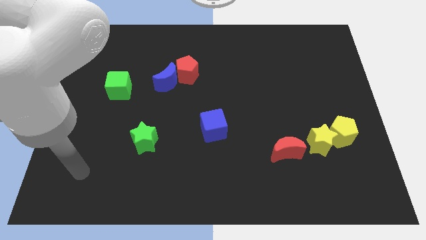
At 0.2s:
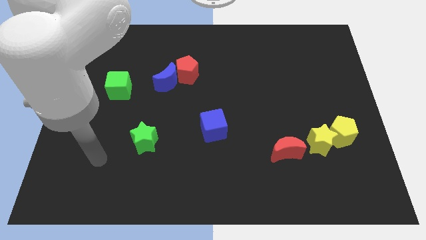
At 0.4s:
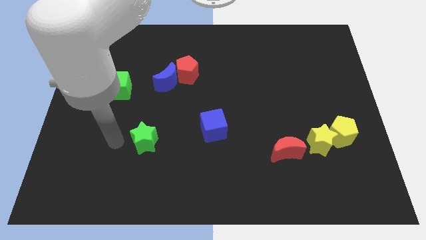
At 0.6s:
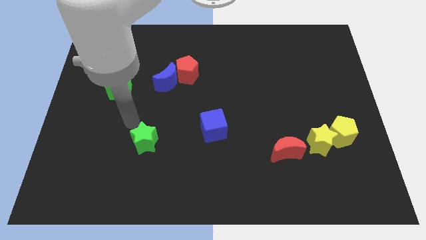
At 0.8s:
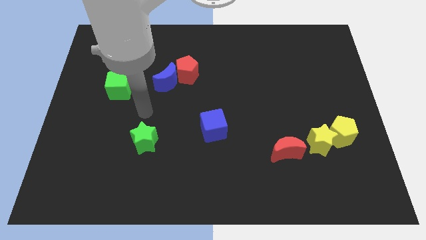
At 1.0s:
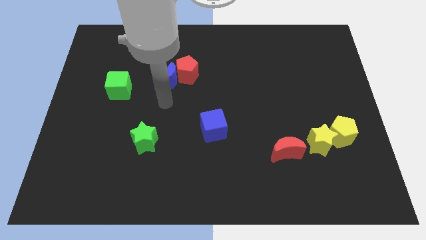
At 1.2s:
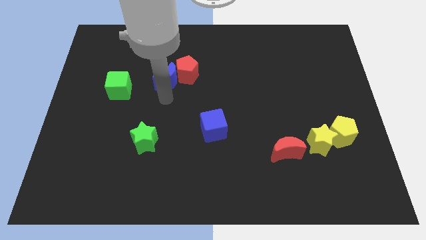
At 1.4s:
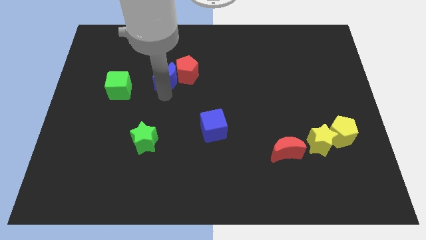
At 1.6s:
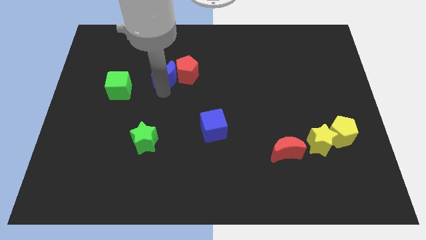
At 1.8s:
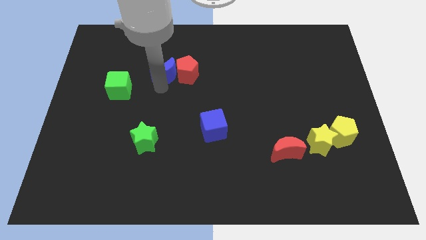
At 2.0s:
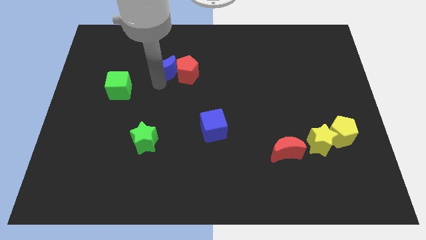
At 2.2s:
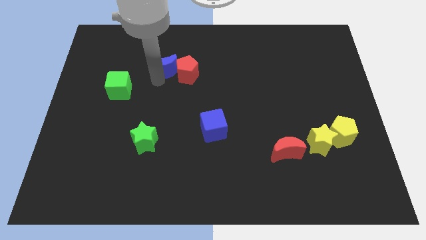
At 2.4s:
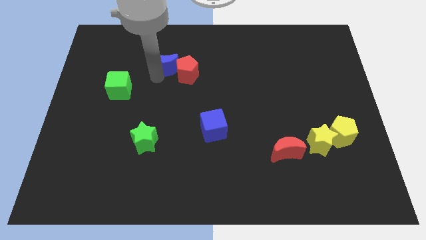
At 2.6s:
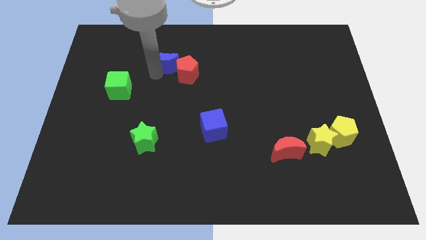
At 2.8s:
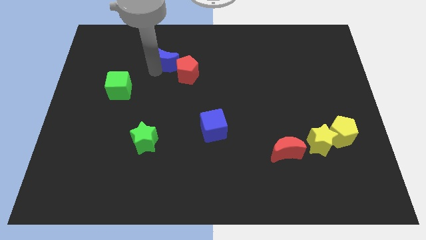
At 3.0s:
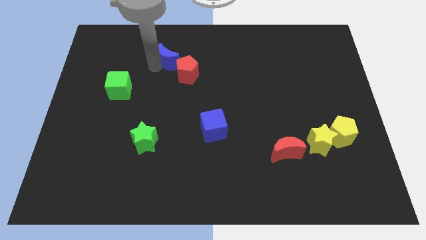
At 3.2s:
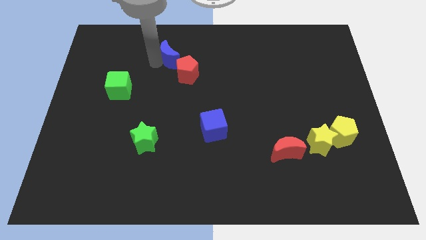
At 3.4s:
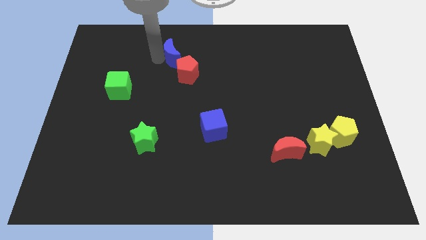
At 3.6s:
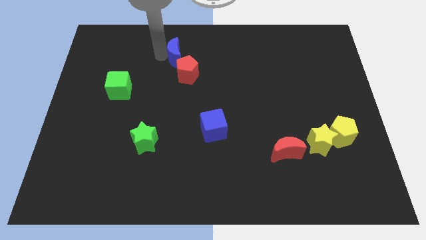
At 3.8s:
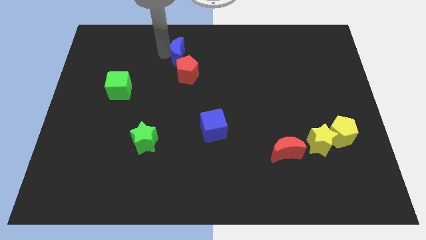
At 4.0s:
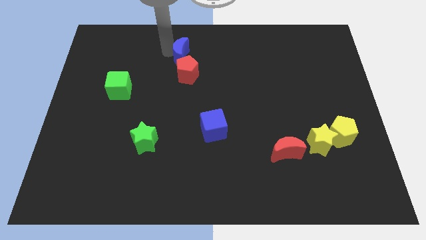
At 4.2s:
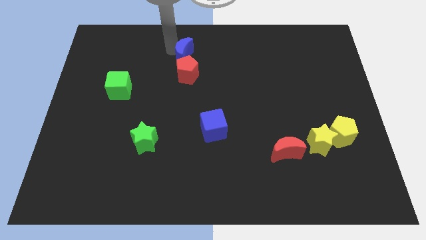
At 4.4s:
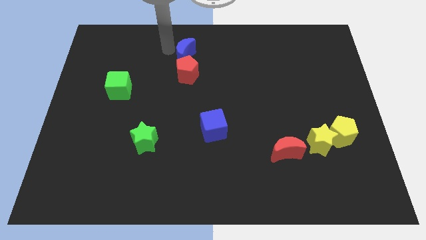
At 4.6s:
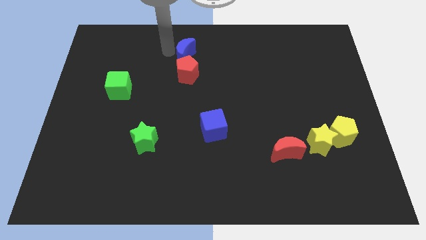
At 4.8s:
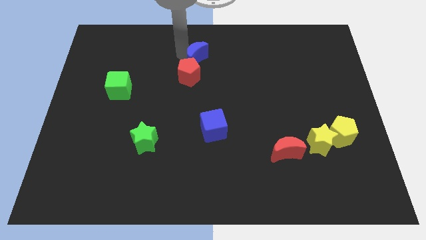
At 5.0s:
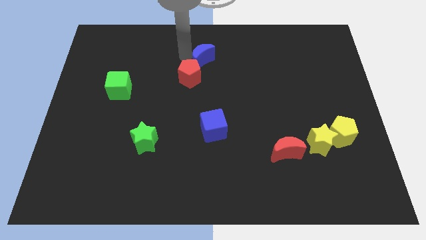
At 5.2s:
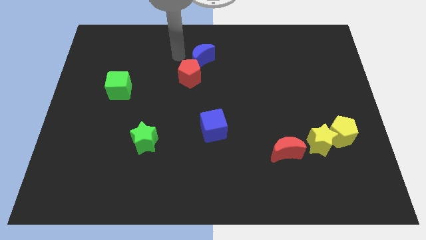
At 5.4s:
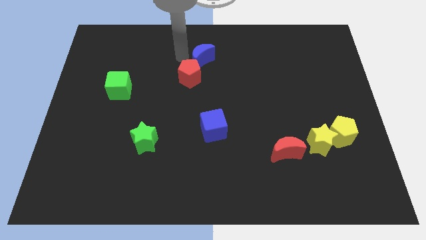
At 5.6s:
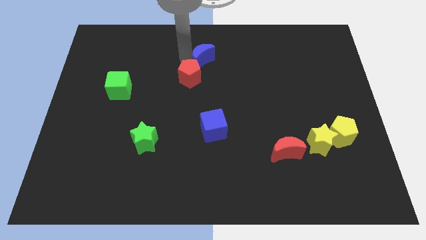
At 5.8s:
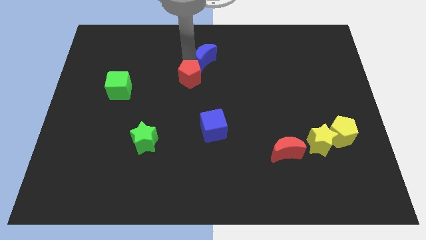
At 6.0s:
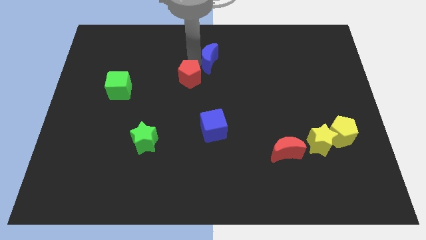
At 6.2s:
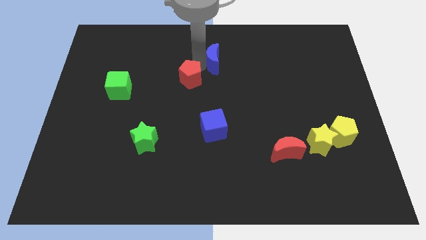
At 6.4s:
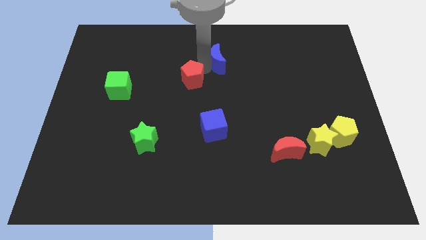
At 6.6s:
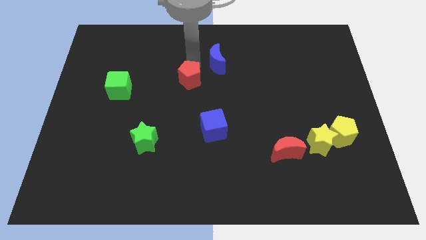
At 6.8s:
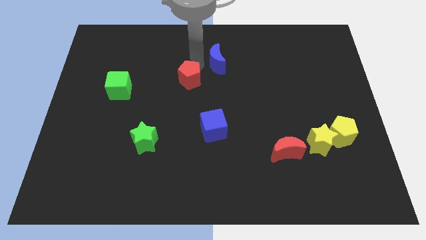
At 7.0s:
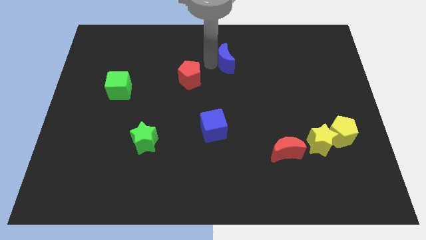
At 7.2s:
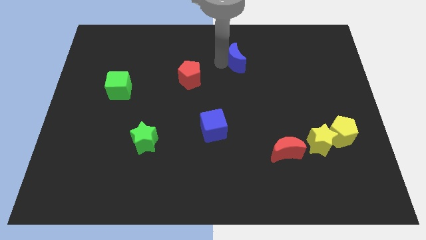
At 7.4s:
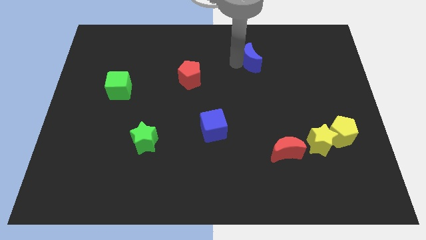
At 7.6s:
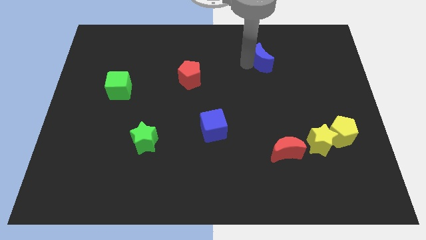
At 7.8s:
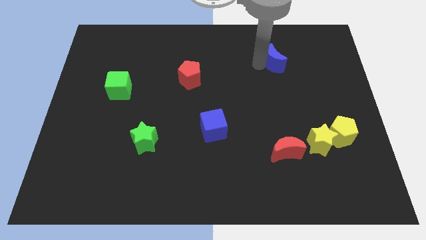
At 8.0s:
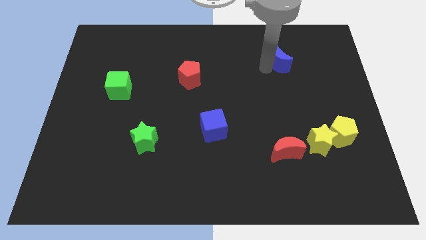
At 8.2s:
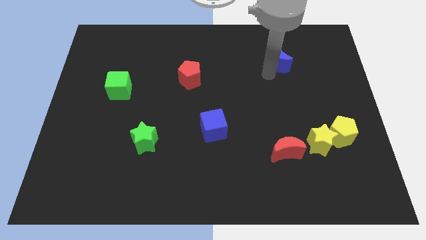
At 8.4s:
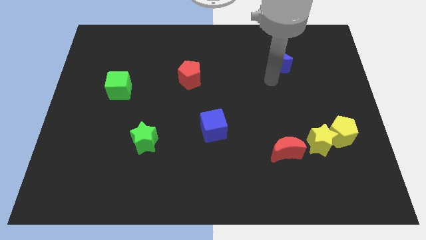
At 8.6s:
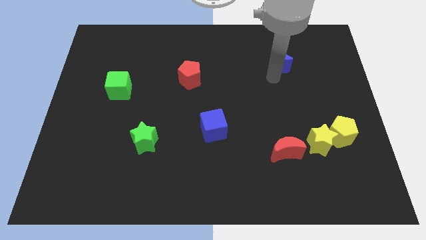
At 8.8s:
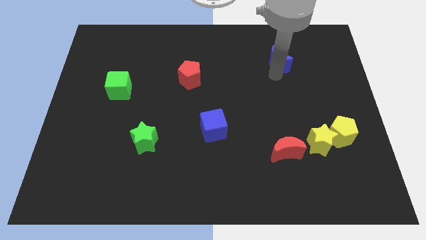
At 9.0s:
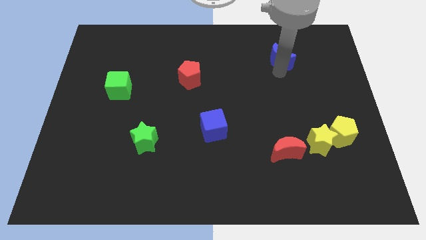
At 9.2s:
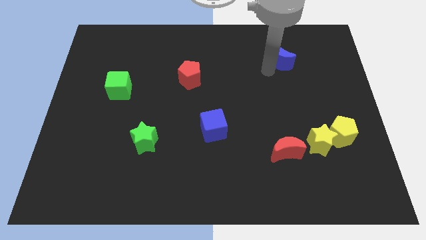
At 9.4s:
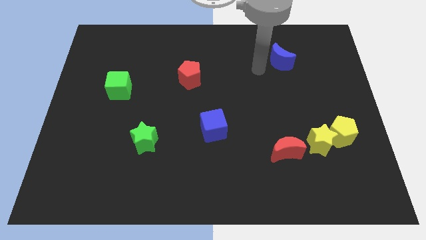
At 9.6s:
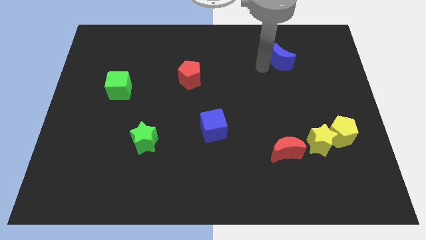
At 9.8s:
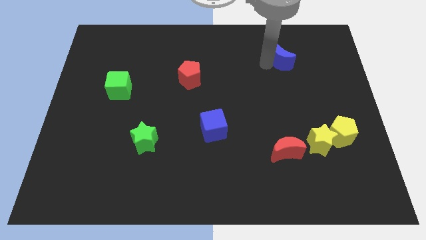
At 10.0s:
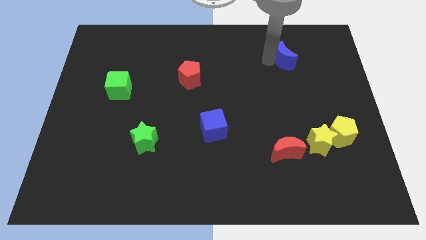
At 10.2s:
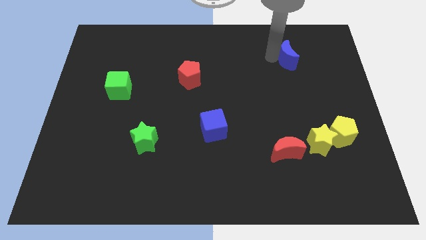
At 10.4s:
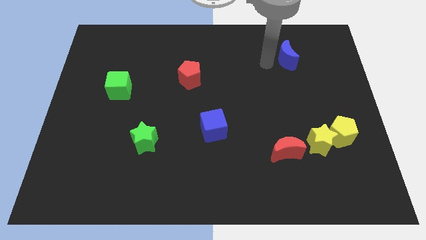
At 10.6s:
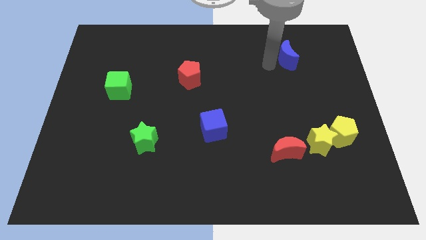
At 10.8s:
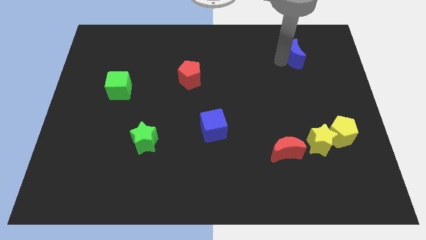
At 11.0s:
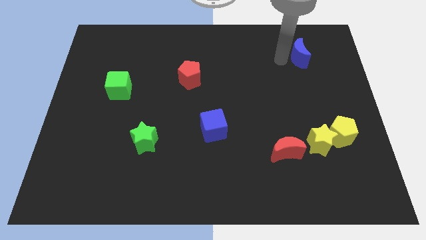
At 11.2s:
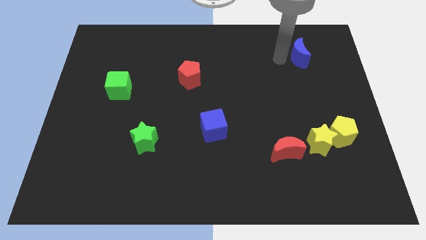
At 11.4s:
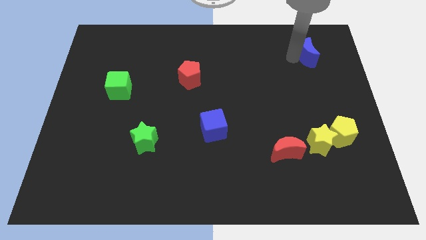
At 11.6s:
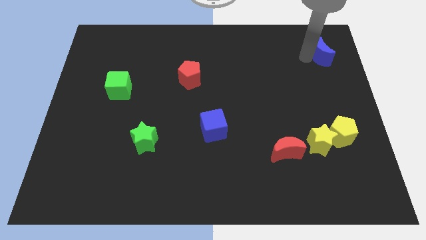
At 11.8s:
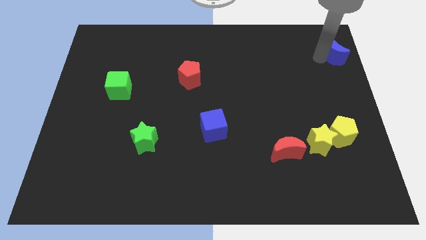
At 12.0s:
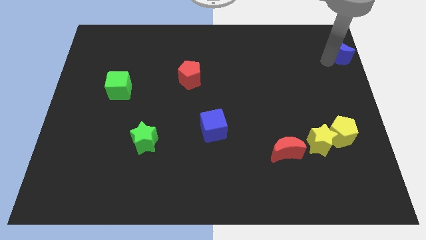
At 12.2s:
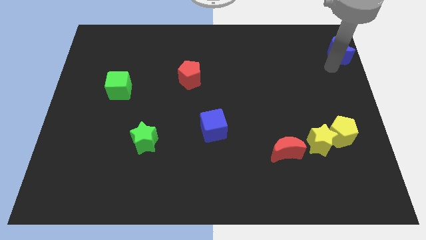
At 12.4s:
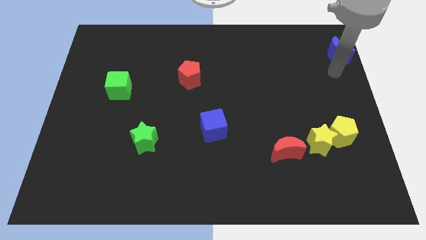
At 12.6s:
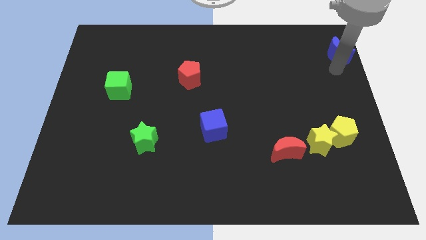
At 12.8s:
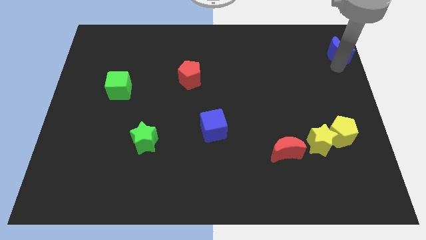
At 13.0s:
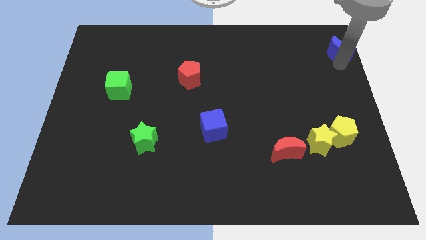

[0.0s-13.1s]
slide the blue moon to the top right of the board
